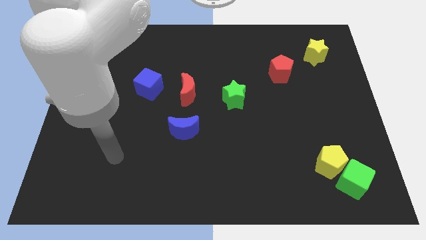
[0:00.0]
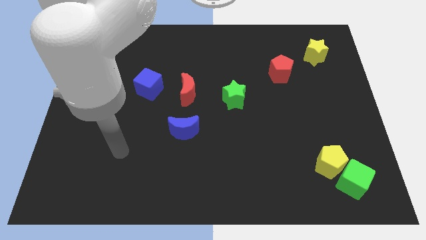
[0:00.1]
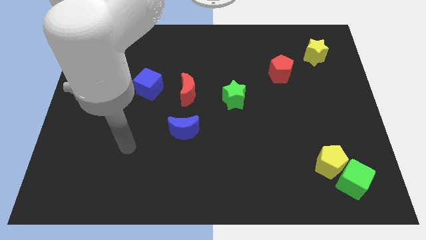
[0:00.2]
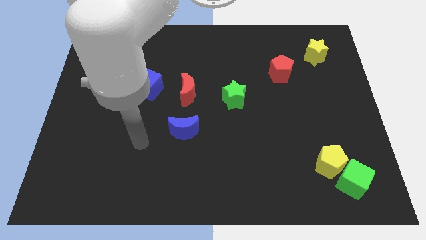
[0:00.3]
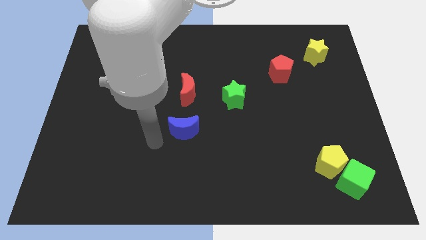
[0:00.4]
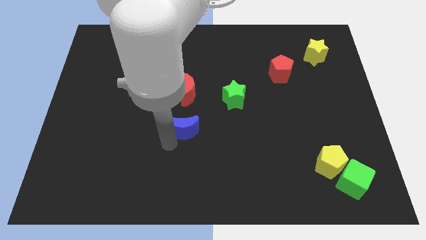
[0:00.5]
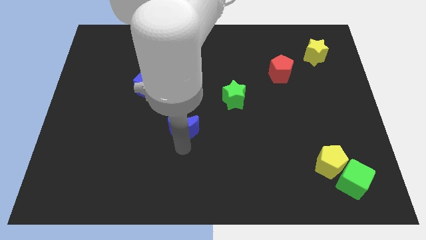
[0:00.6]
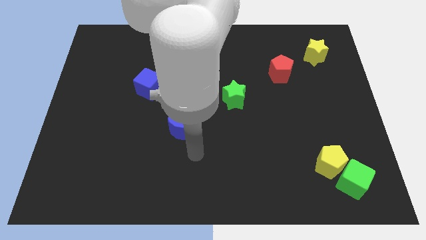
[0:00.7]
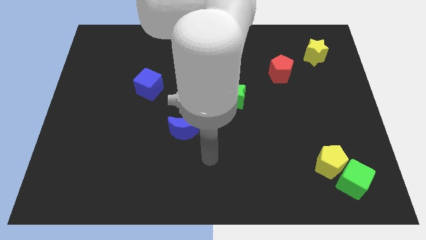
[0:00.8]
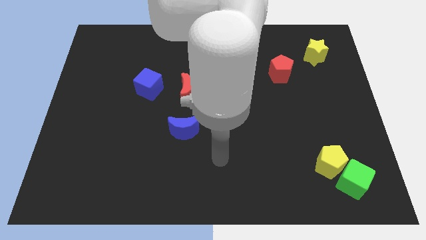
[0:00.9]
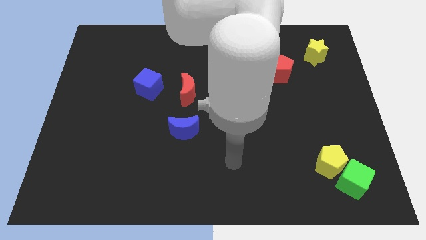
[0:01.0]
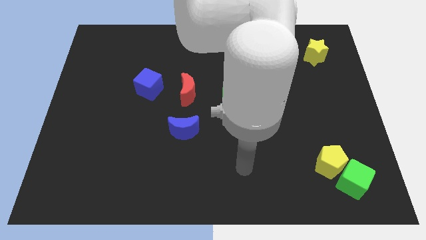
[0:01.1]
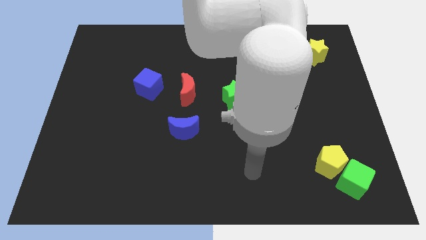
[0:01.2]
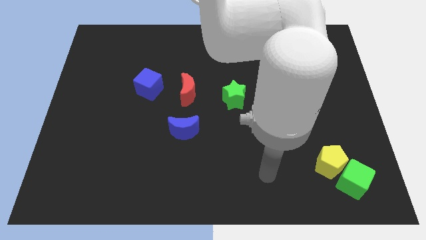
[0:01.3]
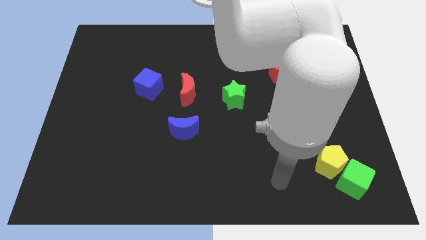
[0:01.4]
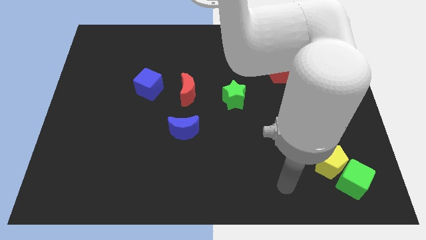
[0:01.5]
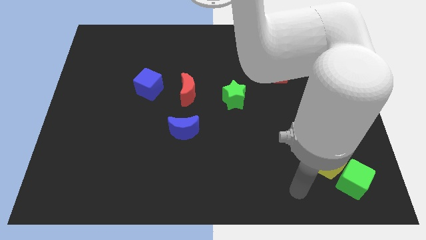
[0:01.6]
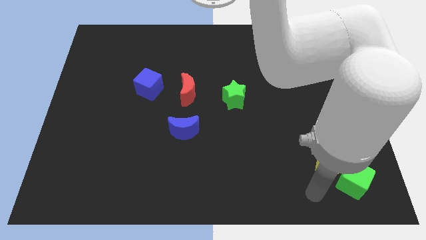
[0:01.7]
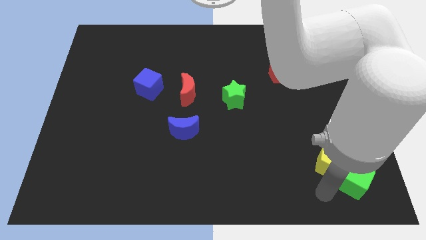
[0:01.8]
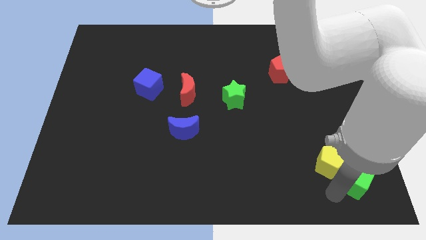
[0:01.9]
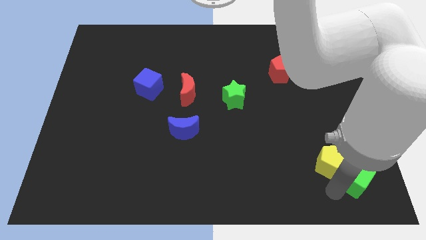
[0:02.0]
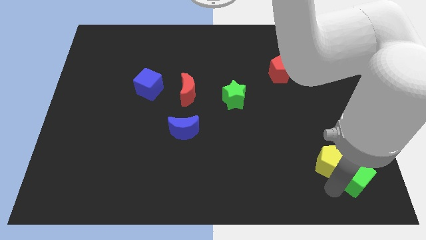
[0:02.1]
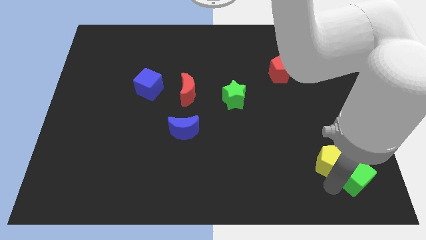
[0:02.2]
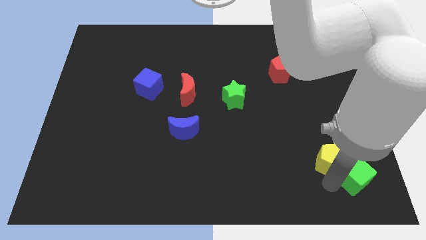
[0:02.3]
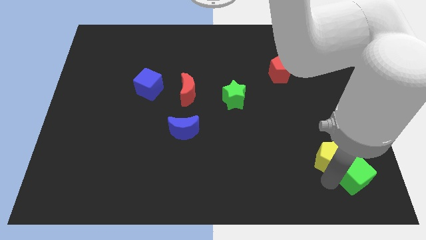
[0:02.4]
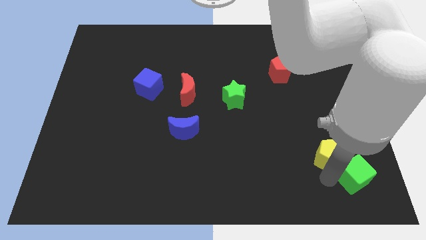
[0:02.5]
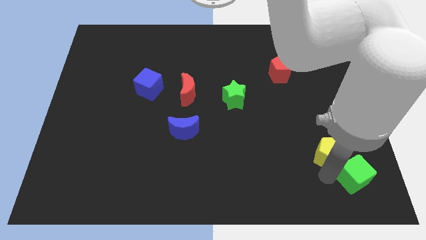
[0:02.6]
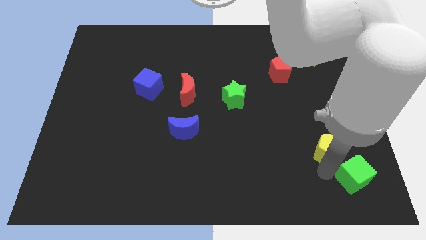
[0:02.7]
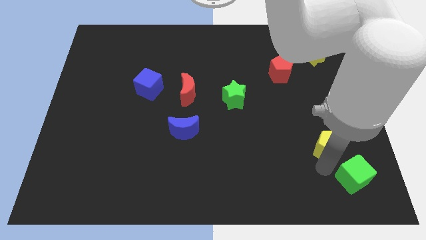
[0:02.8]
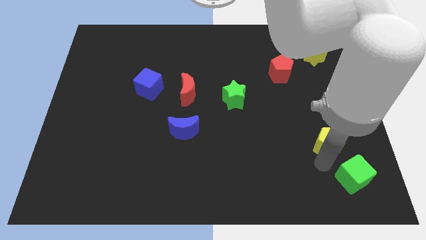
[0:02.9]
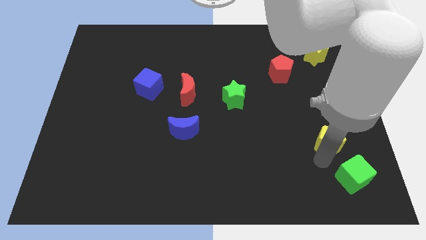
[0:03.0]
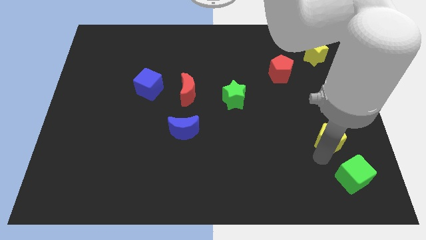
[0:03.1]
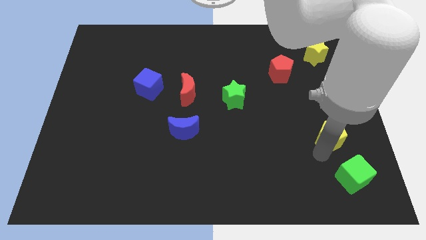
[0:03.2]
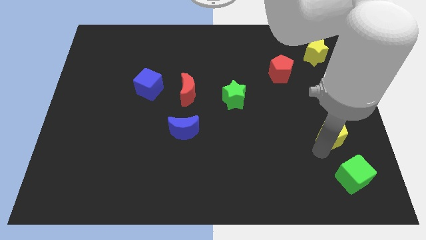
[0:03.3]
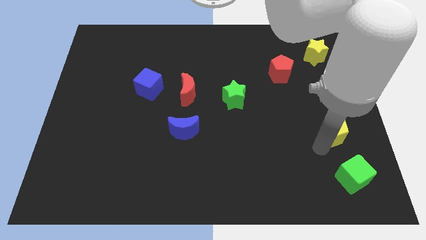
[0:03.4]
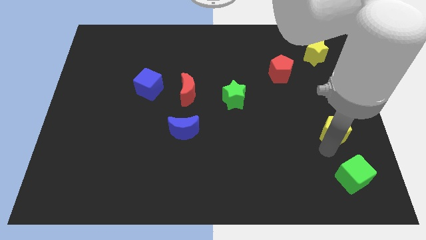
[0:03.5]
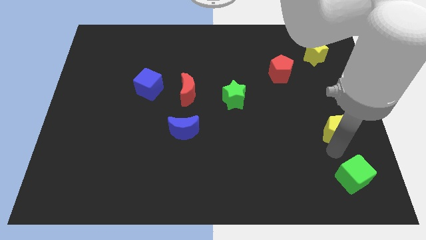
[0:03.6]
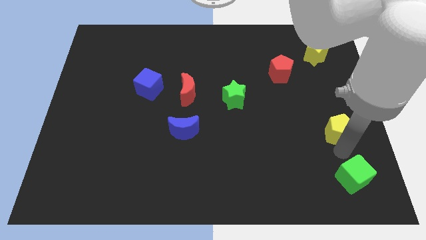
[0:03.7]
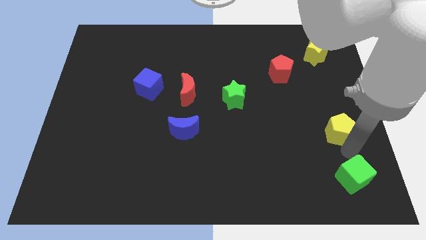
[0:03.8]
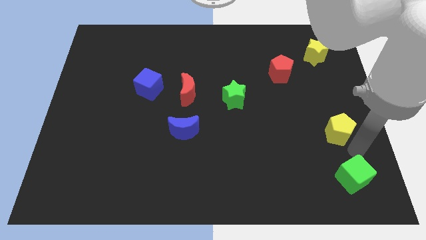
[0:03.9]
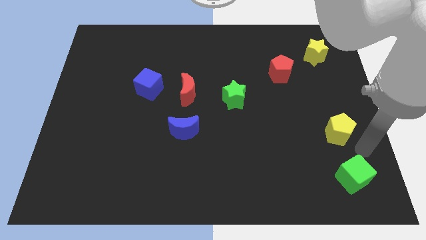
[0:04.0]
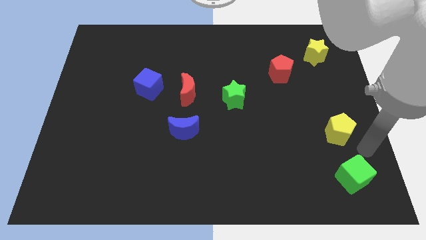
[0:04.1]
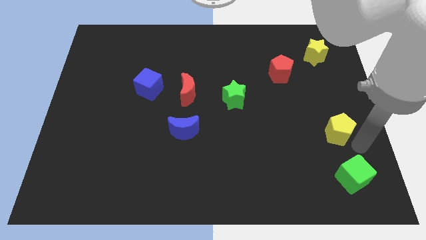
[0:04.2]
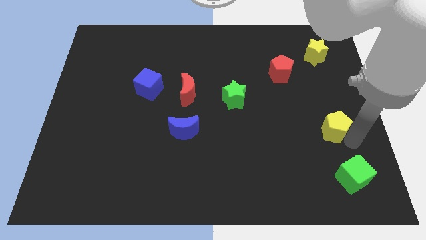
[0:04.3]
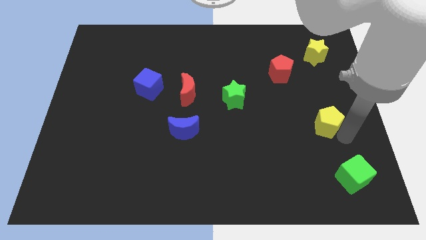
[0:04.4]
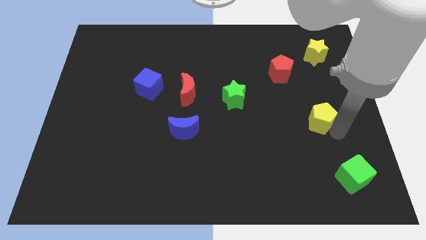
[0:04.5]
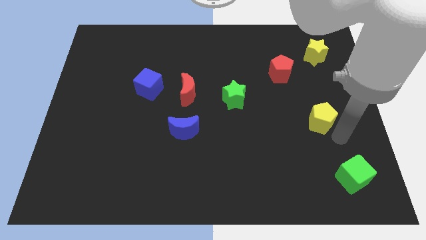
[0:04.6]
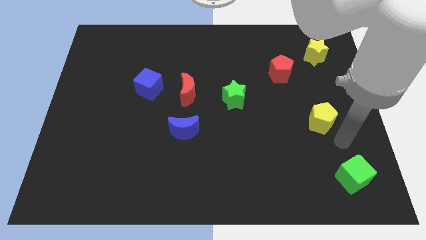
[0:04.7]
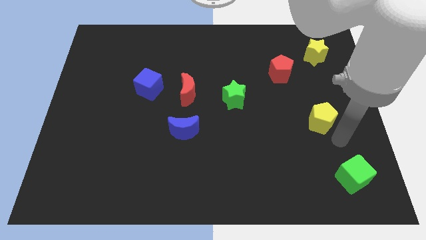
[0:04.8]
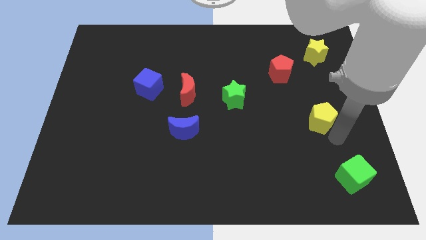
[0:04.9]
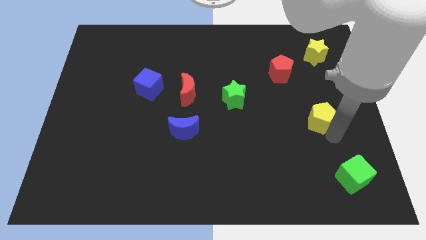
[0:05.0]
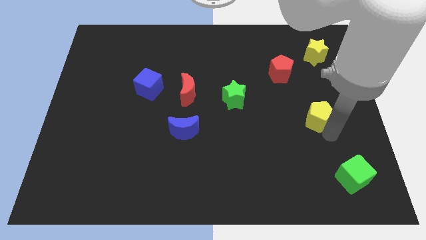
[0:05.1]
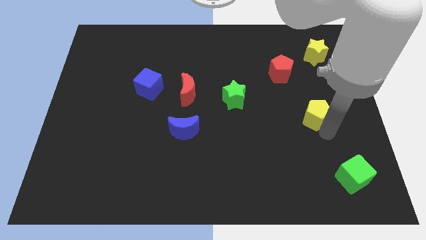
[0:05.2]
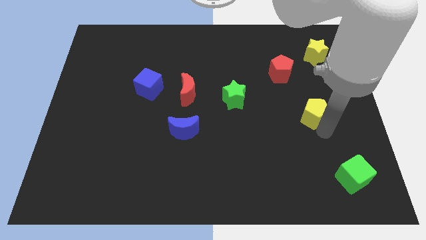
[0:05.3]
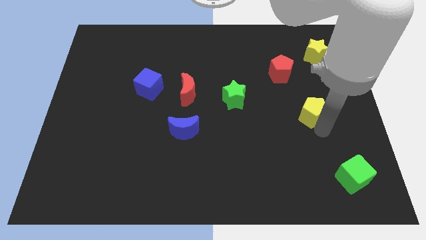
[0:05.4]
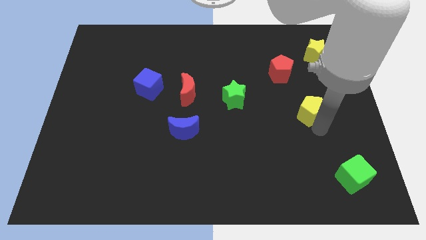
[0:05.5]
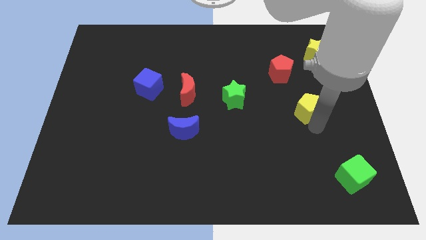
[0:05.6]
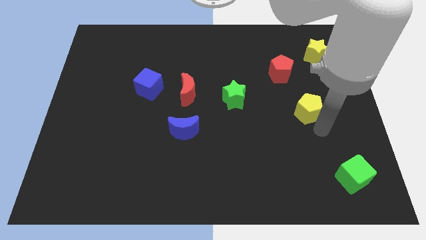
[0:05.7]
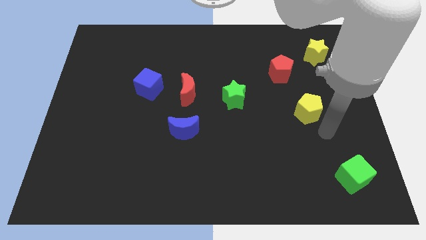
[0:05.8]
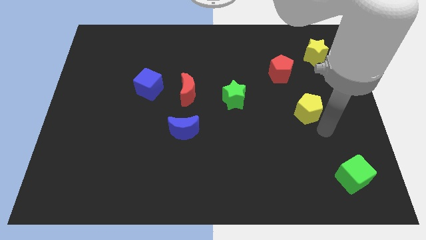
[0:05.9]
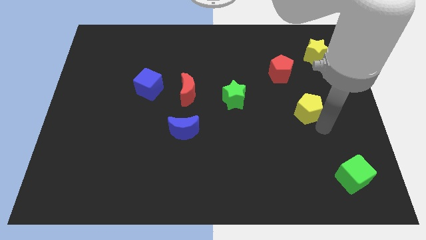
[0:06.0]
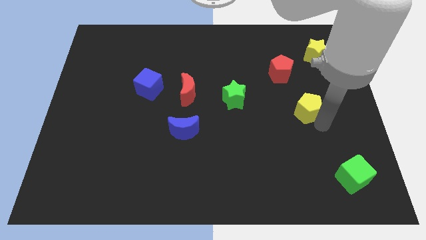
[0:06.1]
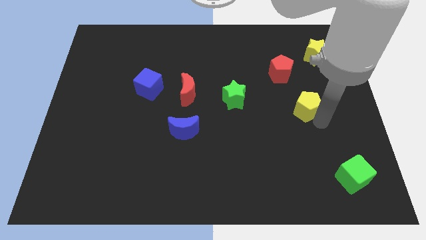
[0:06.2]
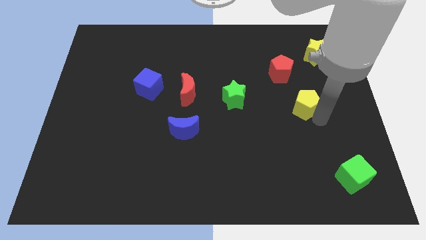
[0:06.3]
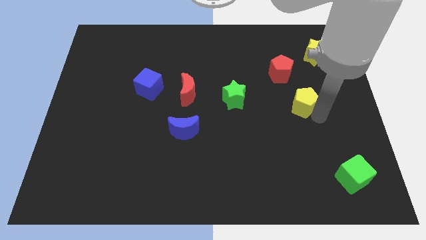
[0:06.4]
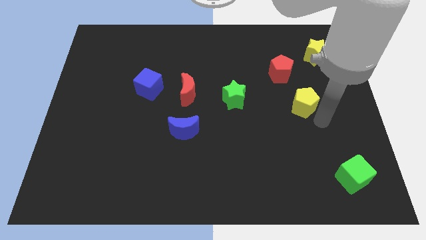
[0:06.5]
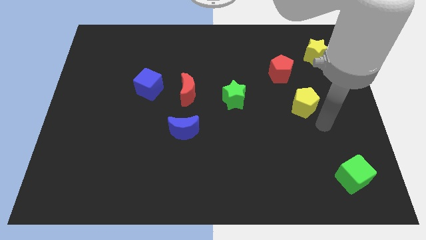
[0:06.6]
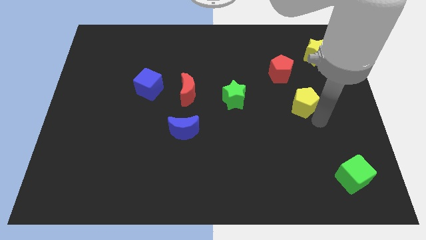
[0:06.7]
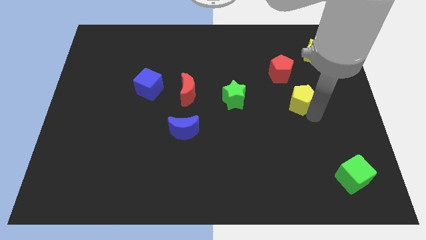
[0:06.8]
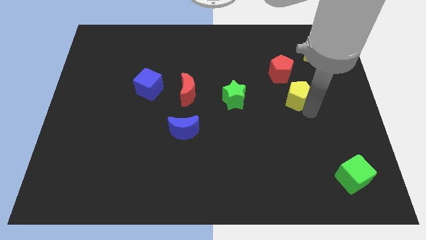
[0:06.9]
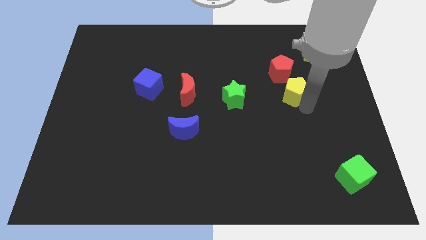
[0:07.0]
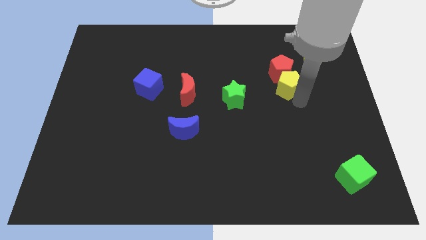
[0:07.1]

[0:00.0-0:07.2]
slide the yellow pentagon towards the red pentagon
